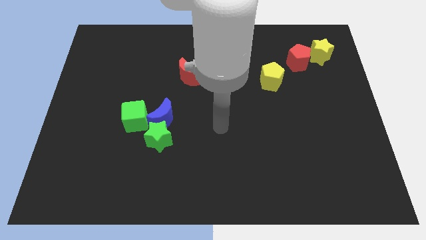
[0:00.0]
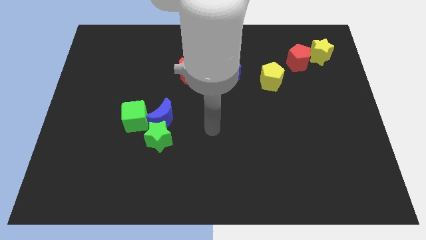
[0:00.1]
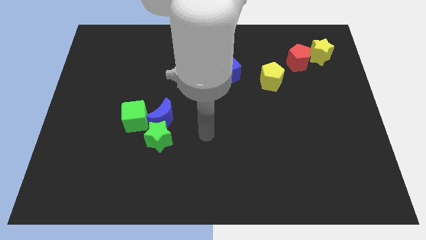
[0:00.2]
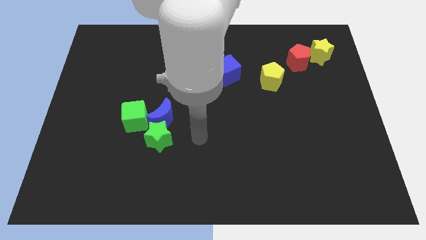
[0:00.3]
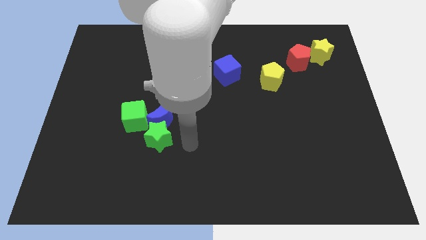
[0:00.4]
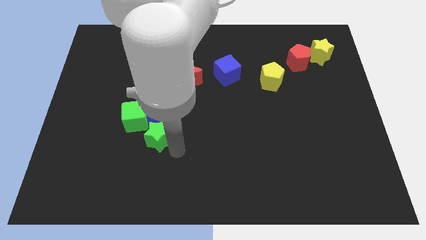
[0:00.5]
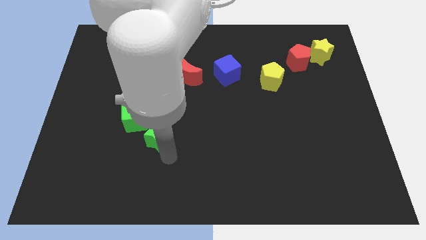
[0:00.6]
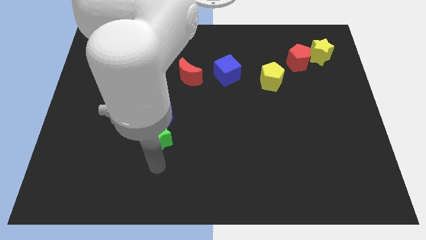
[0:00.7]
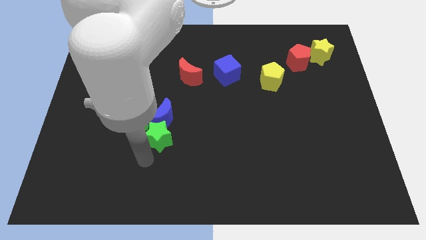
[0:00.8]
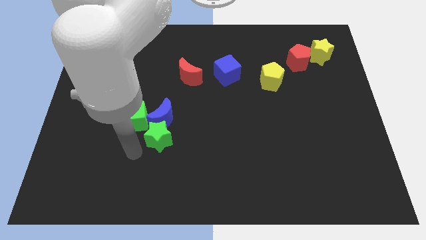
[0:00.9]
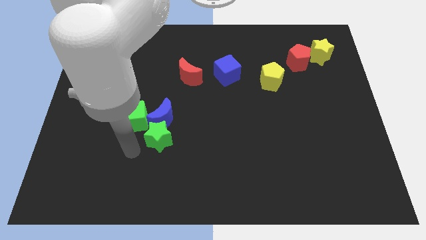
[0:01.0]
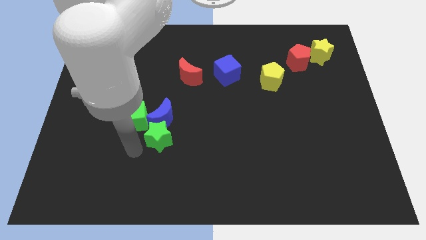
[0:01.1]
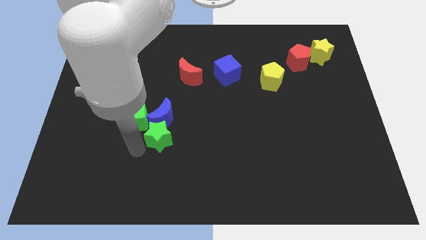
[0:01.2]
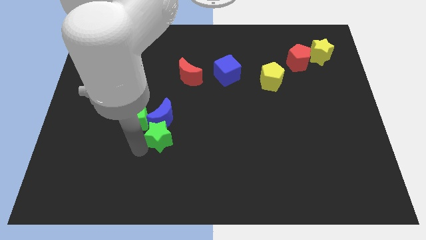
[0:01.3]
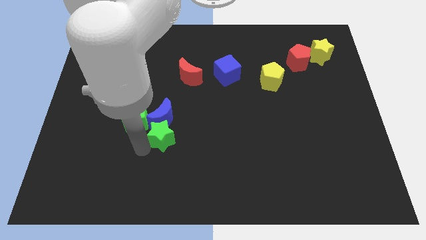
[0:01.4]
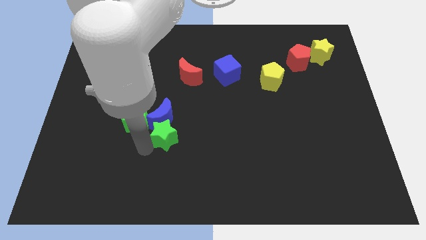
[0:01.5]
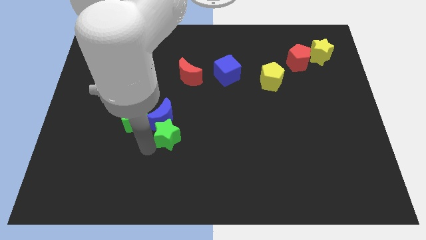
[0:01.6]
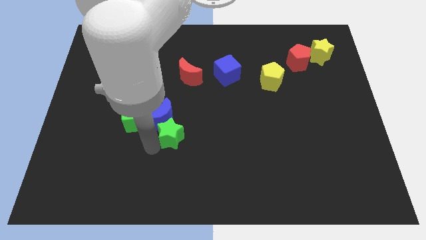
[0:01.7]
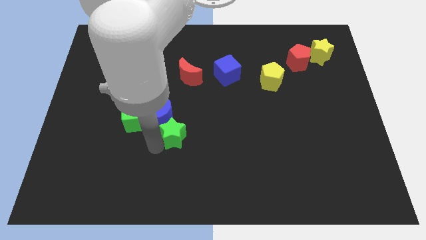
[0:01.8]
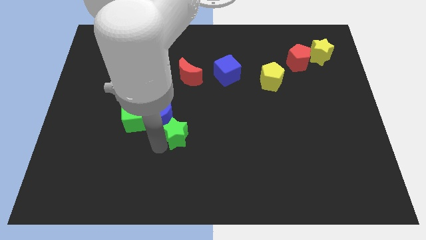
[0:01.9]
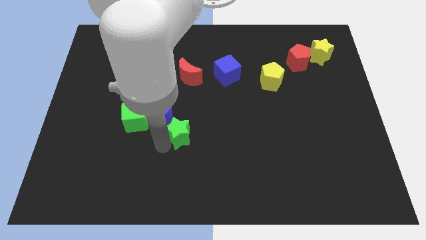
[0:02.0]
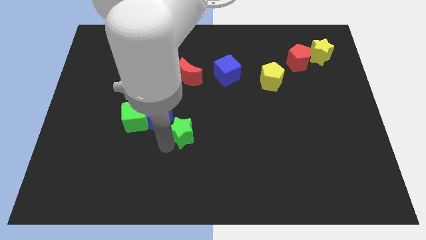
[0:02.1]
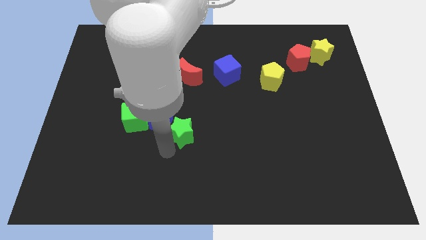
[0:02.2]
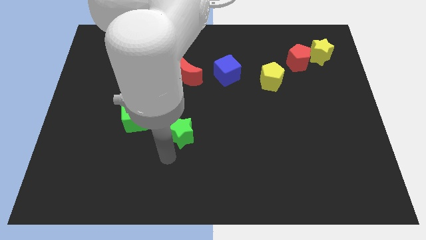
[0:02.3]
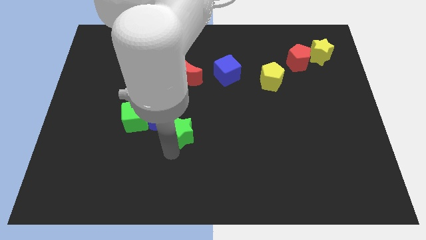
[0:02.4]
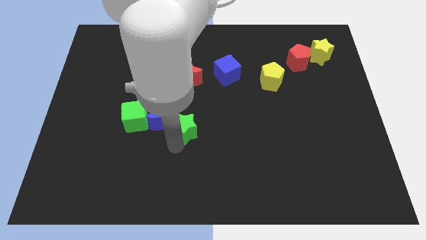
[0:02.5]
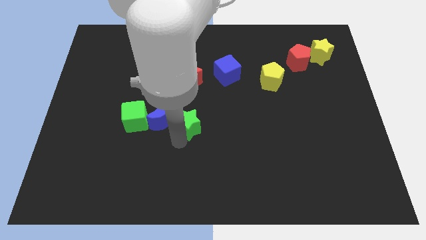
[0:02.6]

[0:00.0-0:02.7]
slightly push the green star upwards and to the right

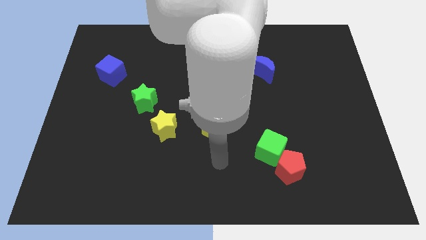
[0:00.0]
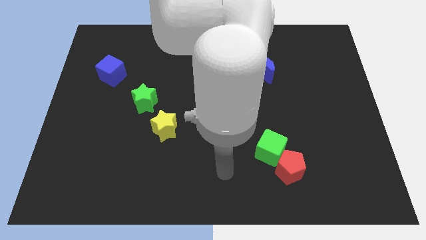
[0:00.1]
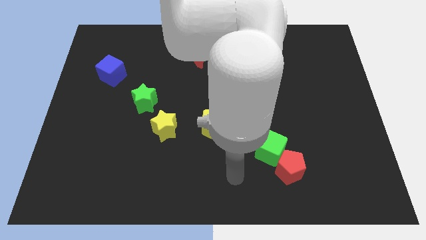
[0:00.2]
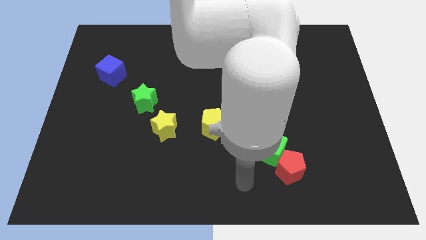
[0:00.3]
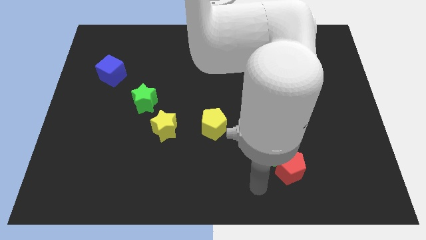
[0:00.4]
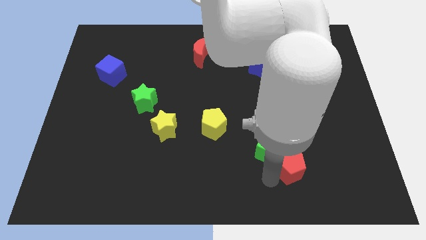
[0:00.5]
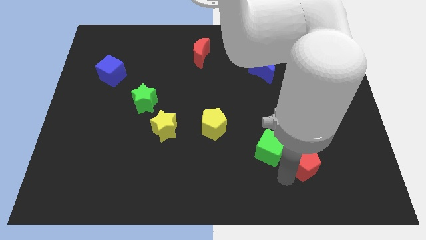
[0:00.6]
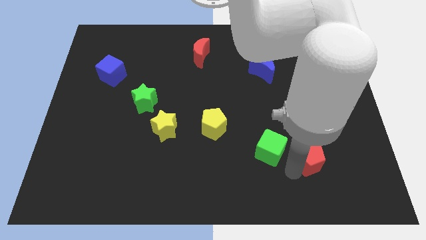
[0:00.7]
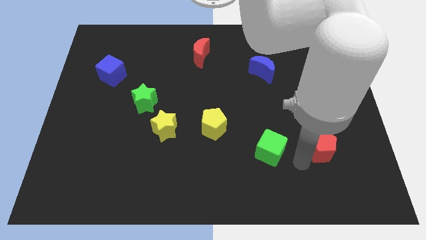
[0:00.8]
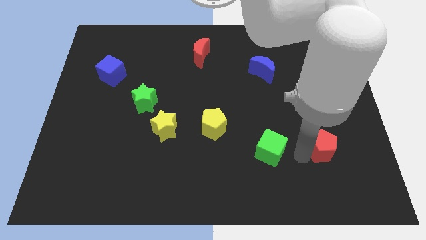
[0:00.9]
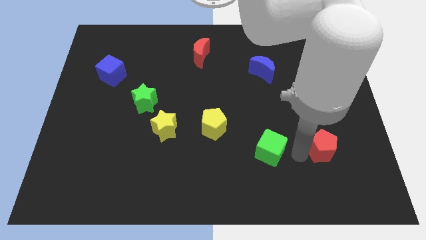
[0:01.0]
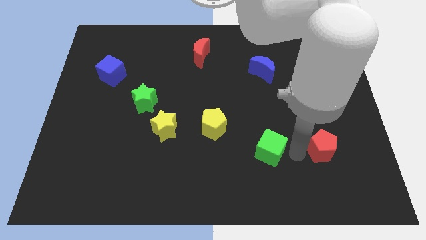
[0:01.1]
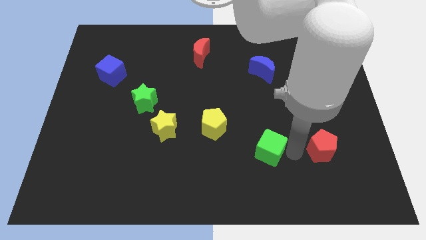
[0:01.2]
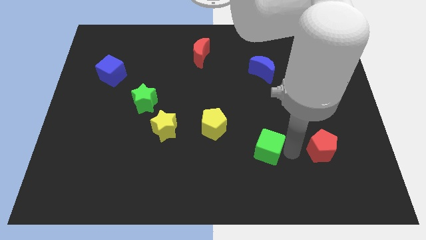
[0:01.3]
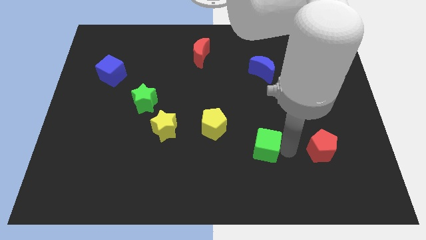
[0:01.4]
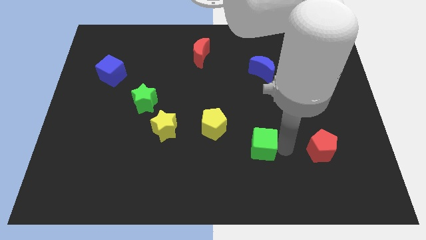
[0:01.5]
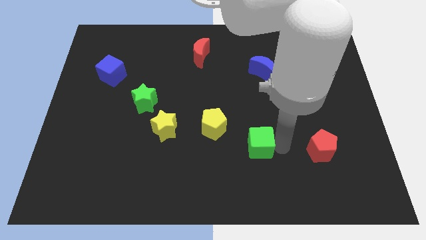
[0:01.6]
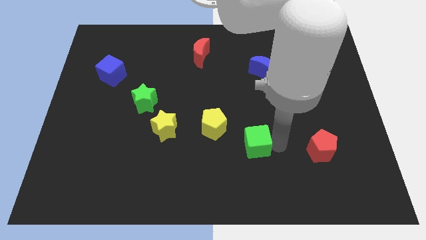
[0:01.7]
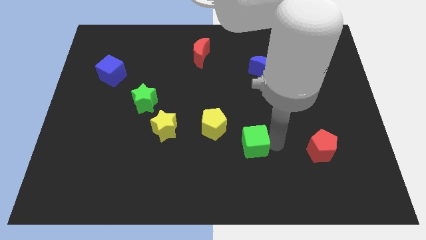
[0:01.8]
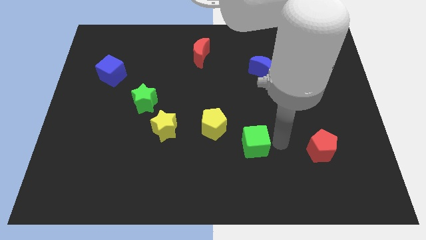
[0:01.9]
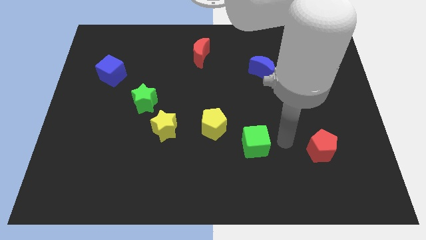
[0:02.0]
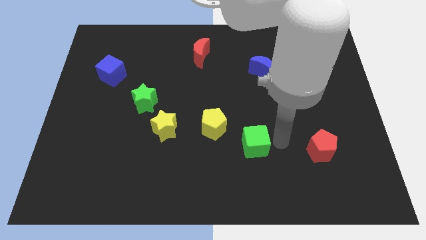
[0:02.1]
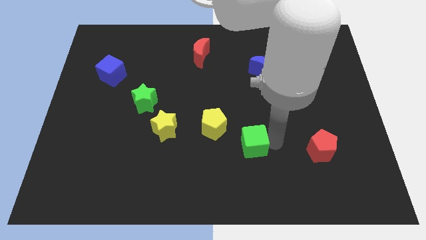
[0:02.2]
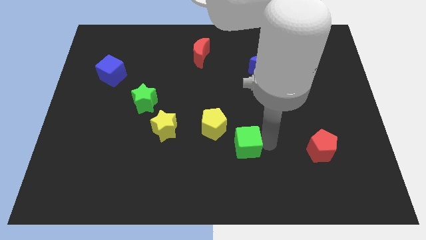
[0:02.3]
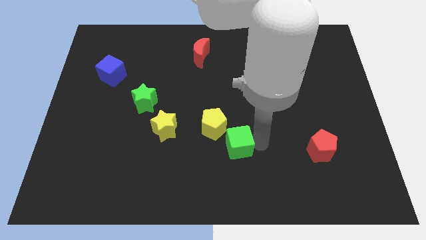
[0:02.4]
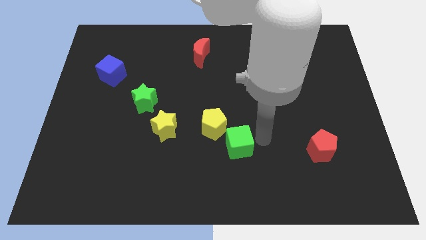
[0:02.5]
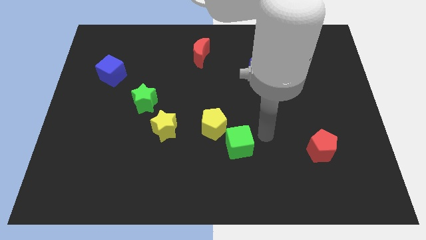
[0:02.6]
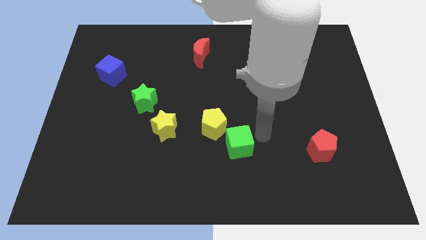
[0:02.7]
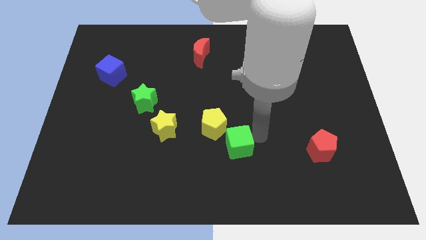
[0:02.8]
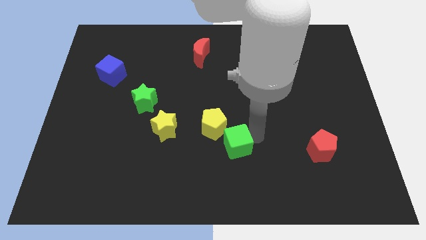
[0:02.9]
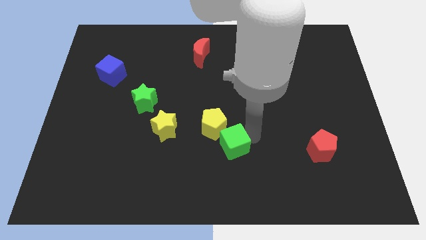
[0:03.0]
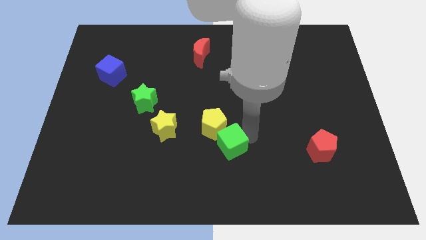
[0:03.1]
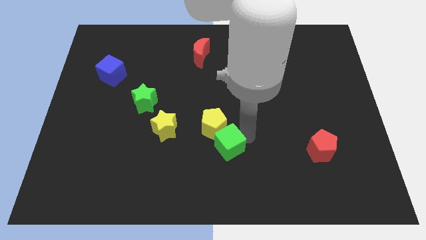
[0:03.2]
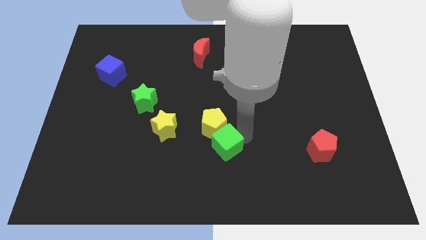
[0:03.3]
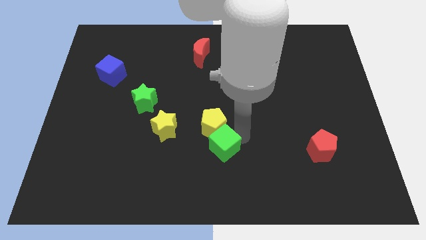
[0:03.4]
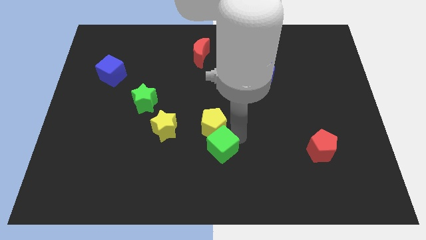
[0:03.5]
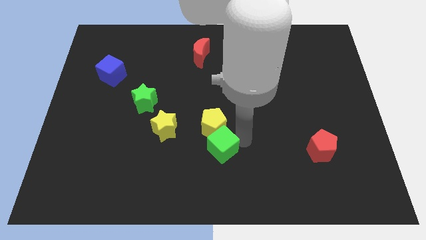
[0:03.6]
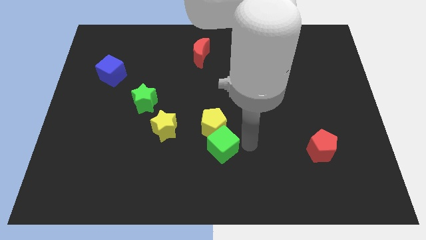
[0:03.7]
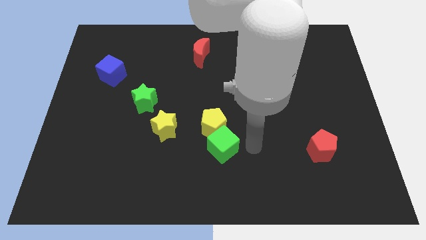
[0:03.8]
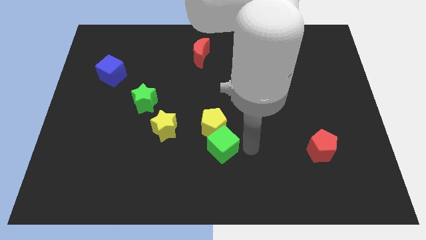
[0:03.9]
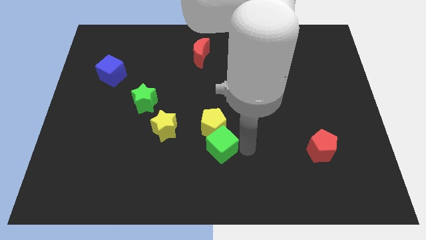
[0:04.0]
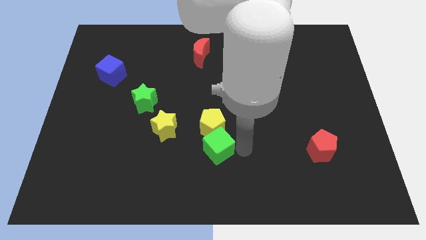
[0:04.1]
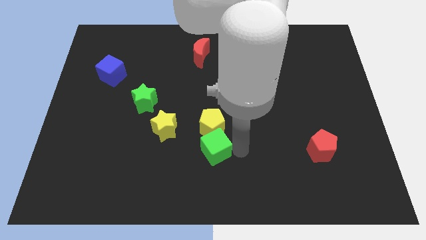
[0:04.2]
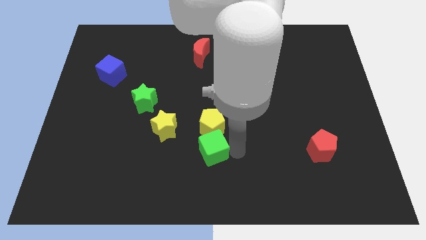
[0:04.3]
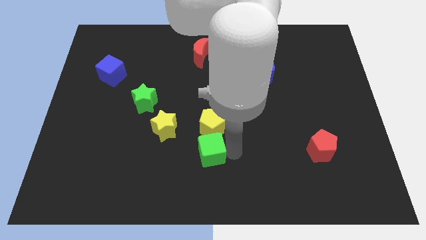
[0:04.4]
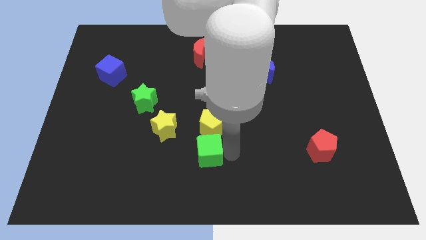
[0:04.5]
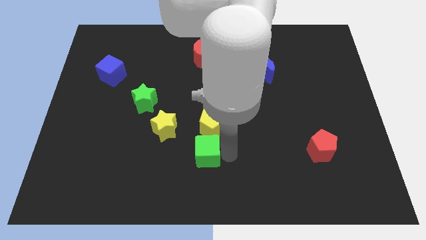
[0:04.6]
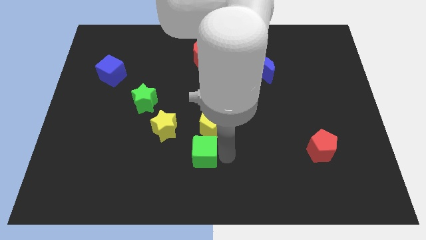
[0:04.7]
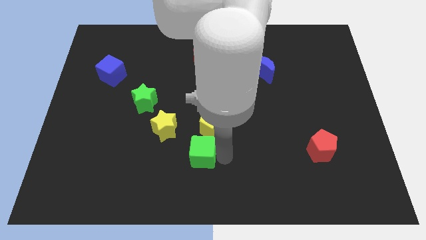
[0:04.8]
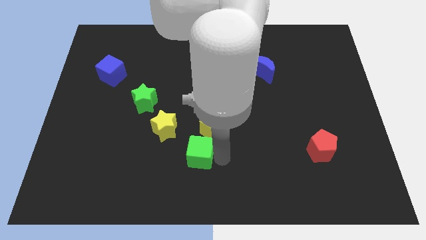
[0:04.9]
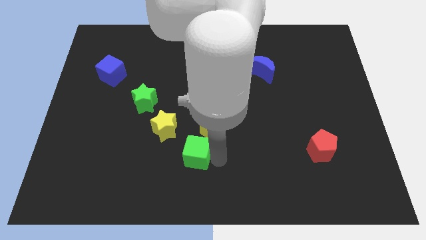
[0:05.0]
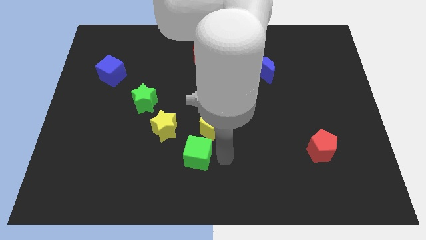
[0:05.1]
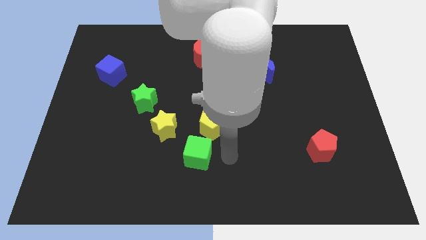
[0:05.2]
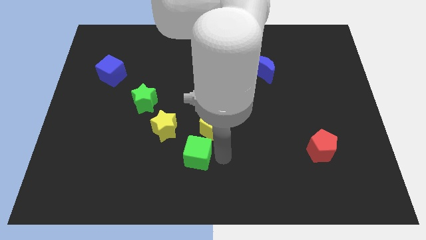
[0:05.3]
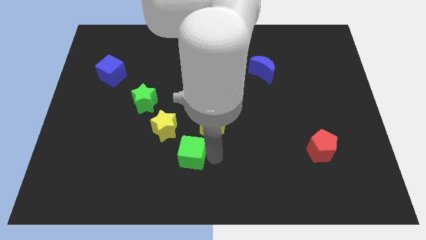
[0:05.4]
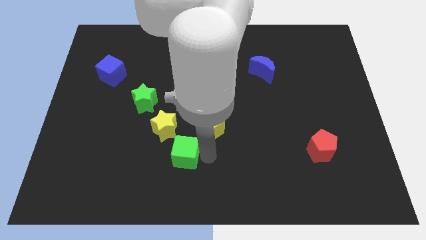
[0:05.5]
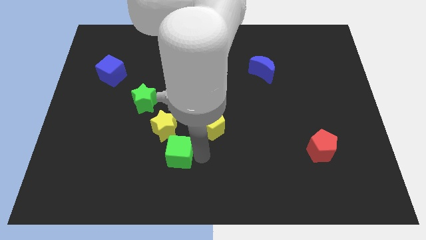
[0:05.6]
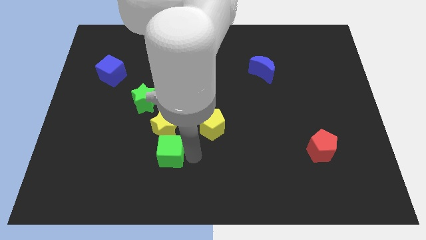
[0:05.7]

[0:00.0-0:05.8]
push the green cube to the left
